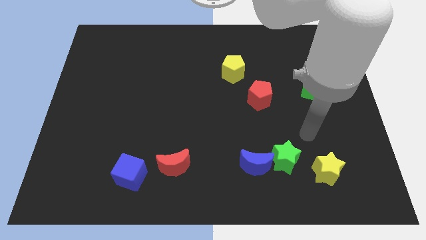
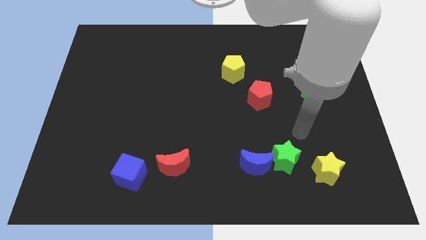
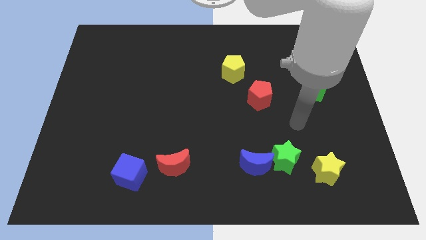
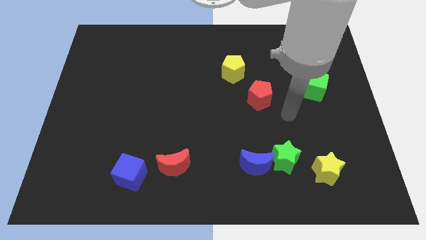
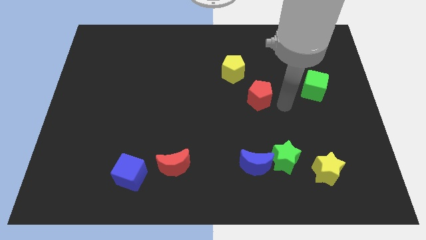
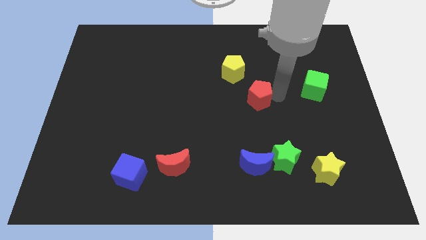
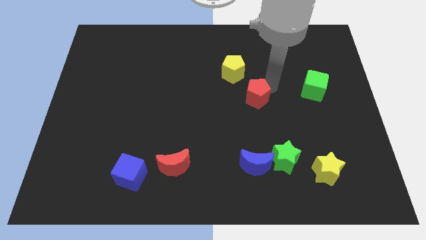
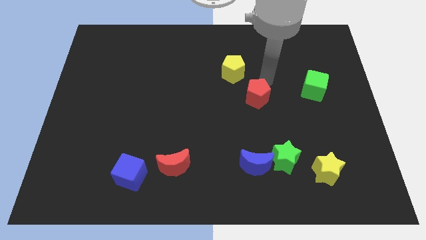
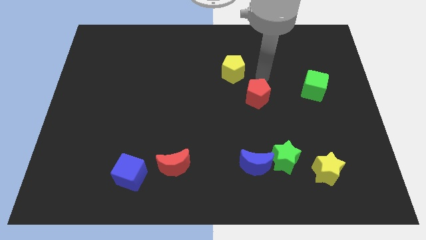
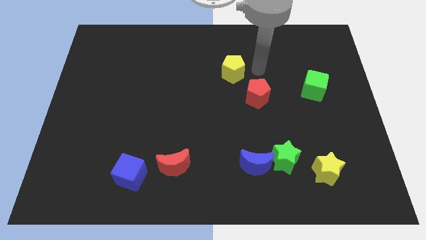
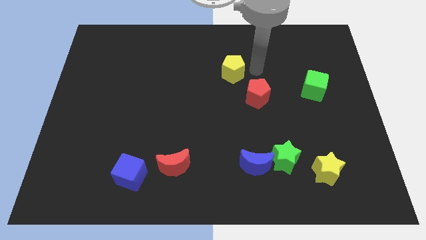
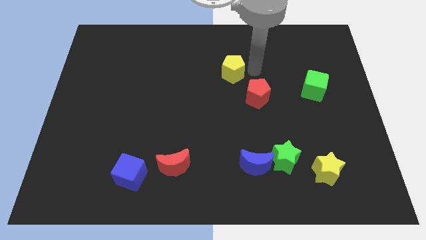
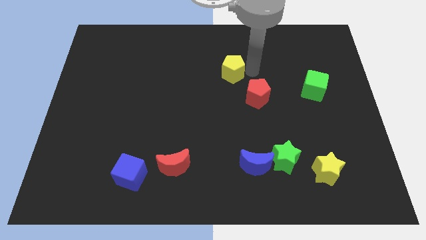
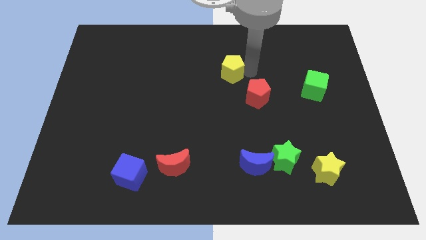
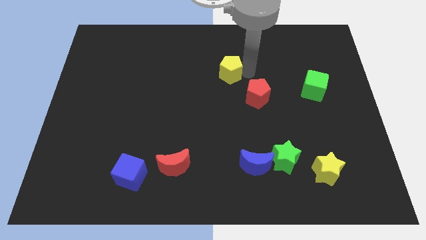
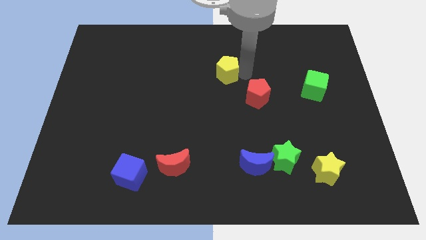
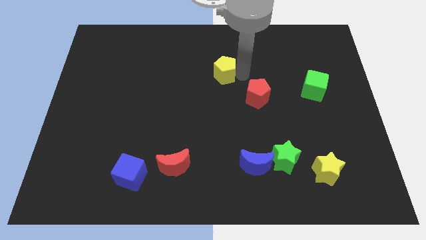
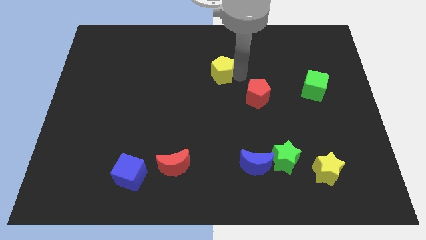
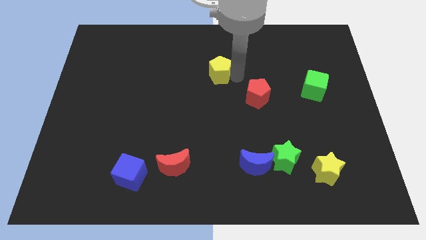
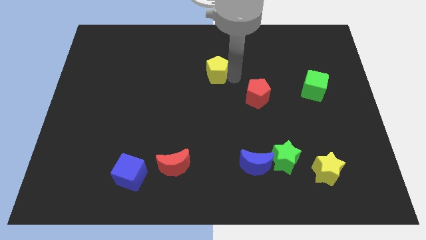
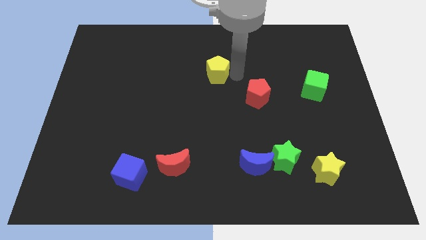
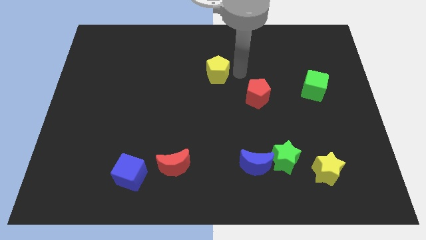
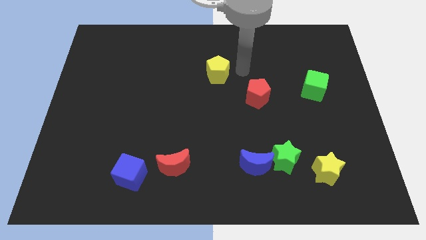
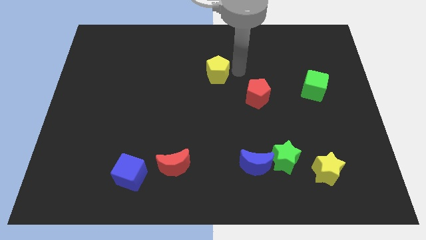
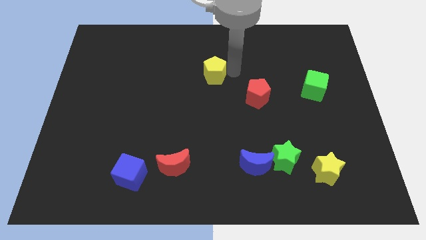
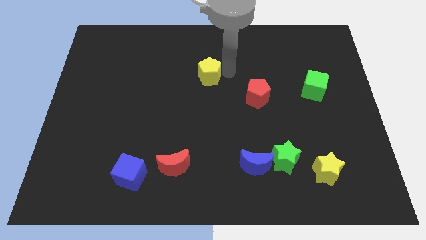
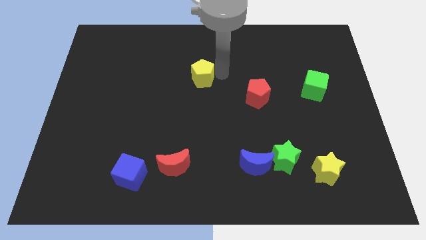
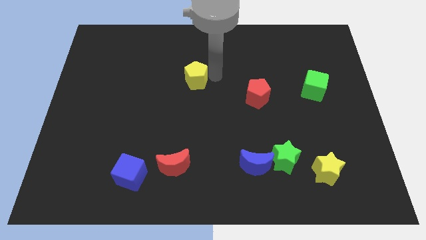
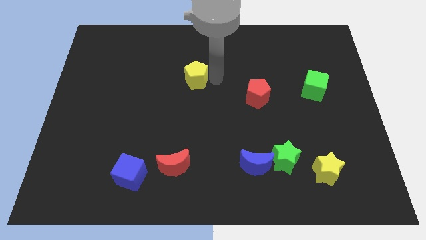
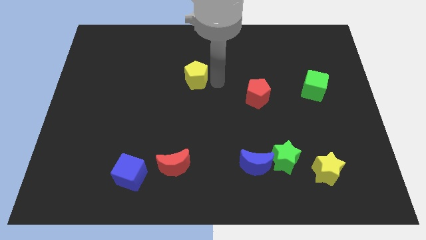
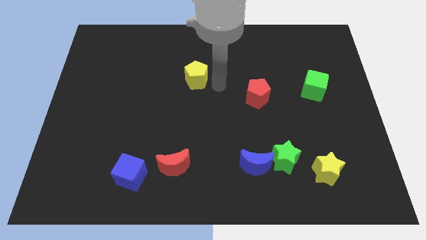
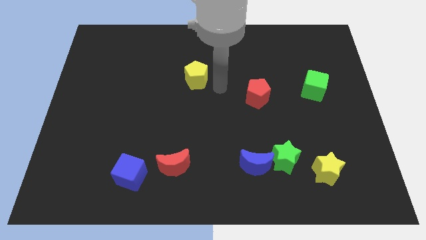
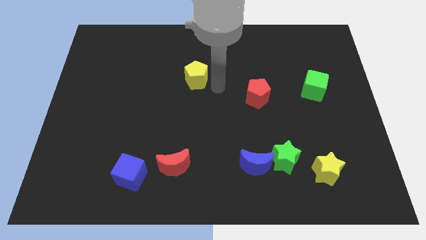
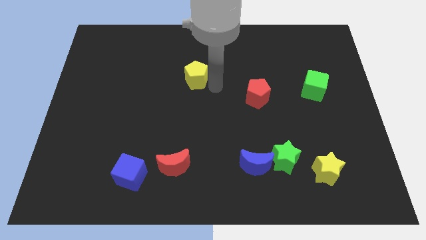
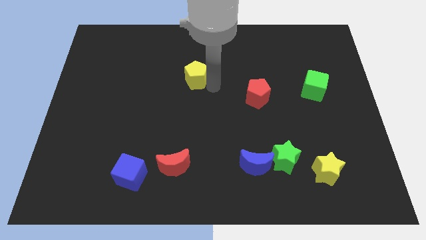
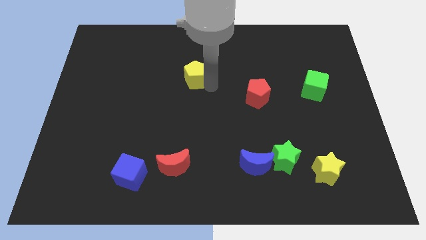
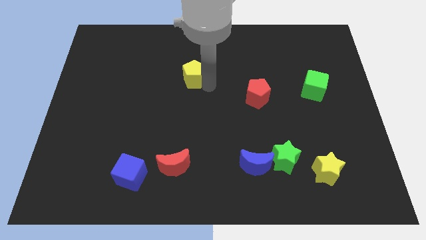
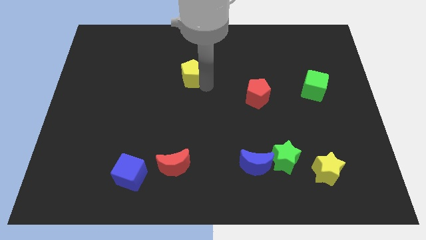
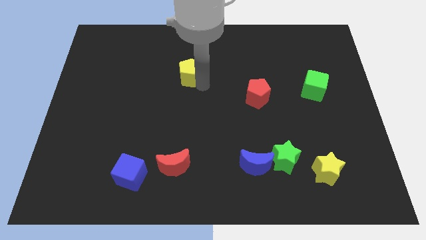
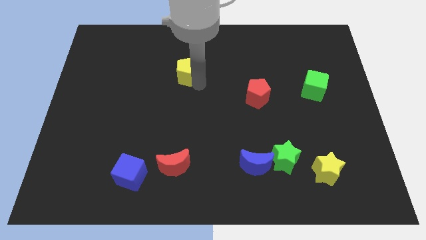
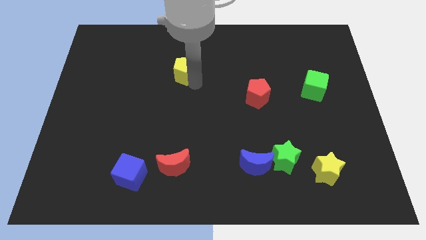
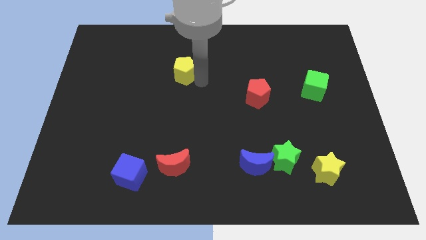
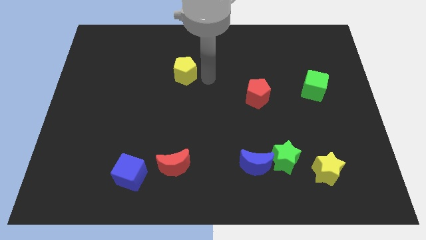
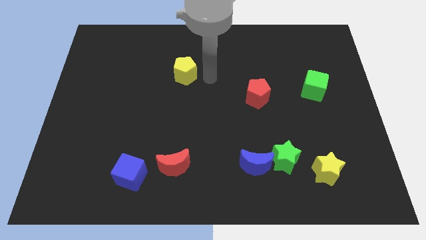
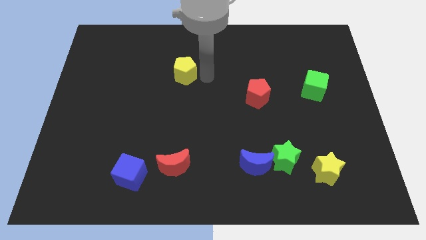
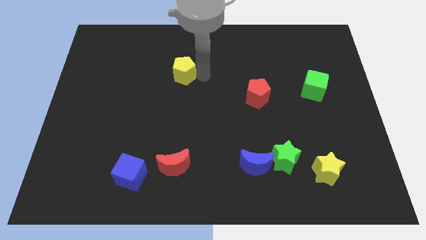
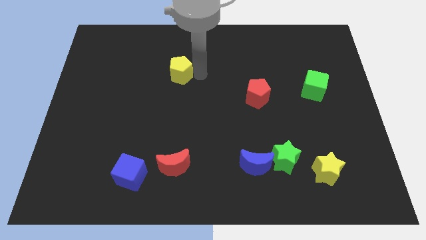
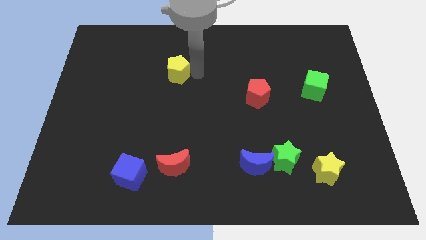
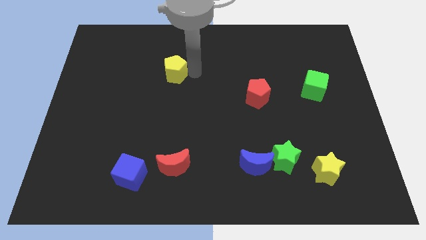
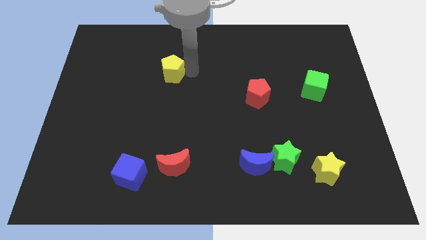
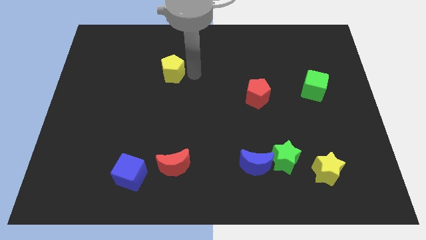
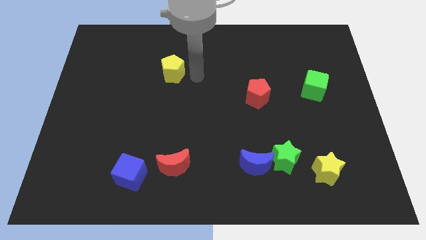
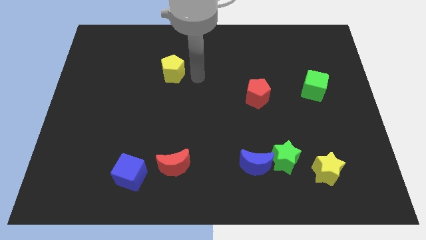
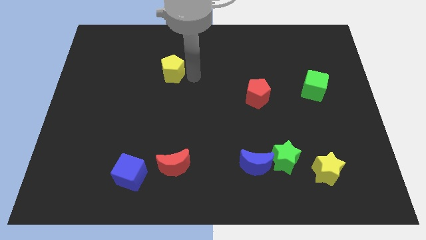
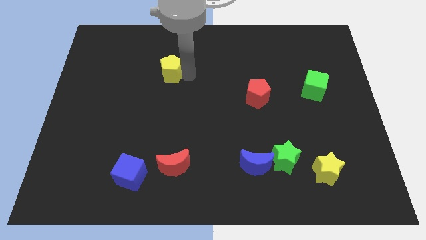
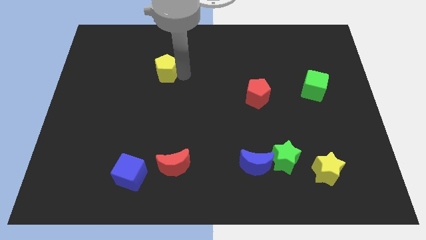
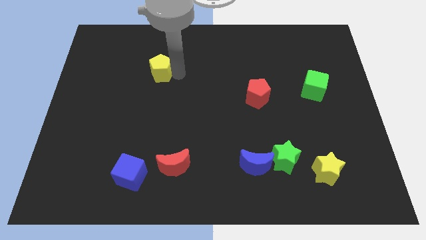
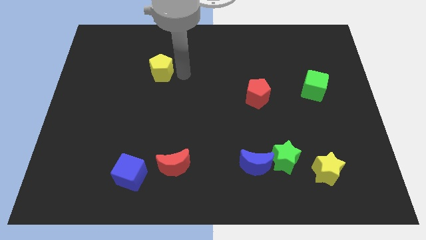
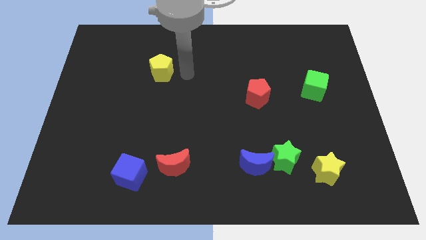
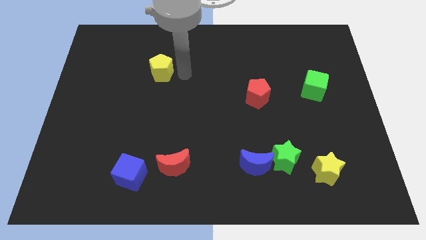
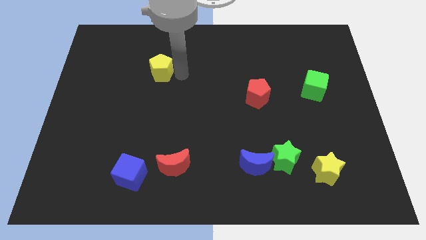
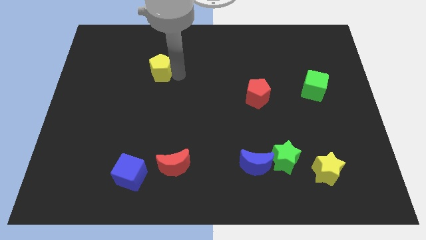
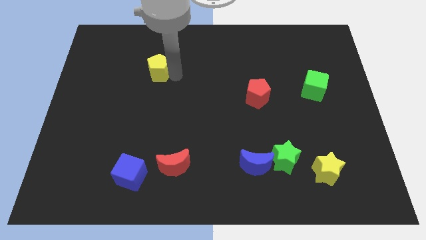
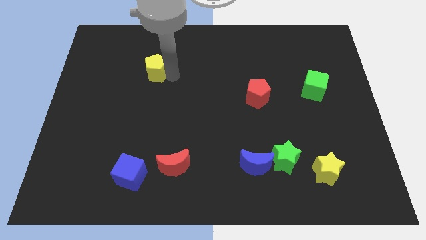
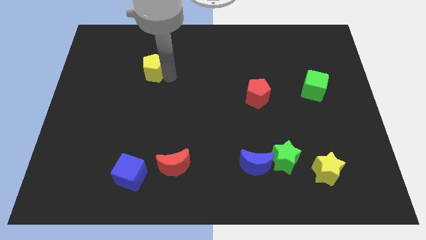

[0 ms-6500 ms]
push the yellow pentagon to the left

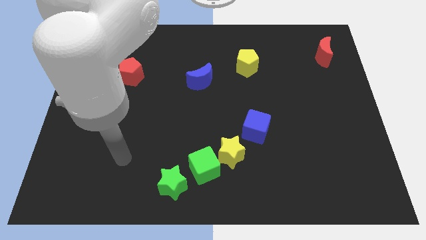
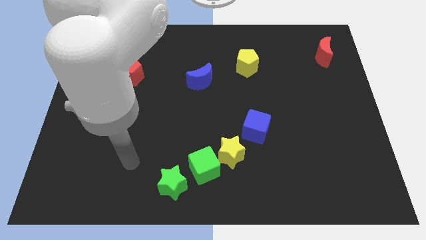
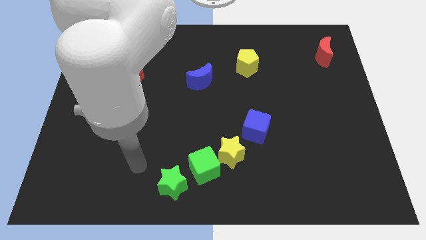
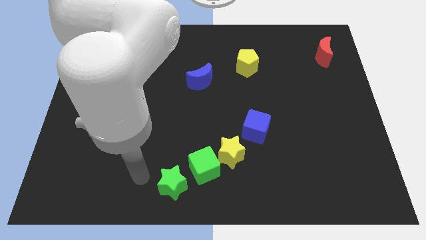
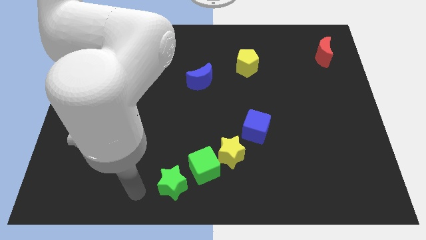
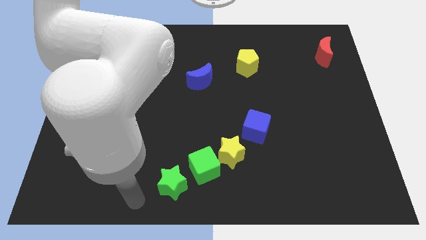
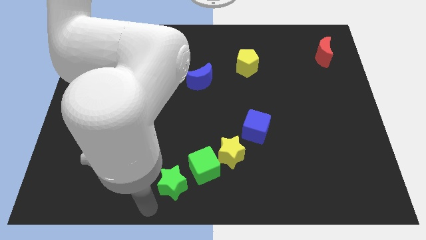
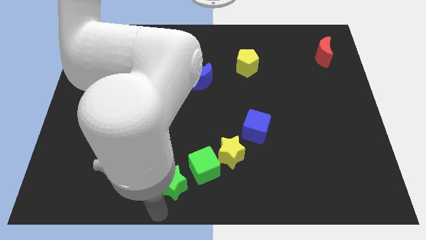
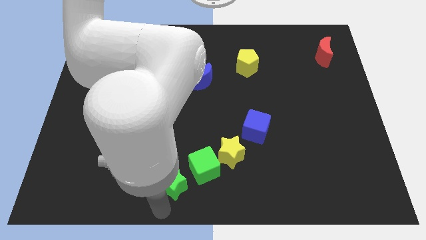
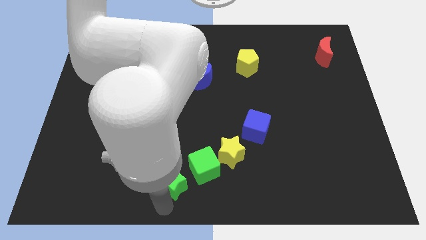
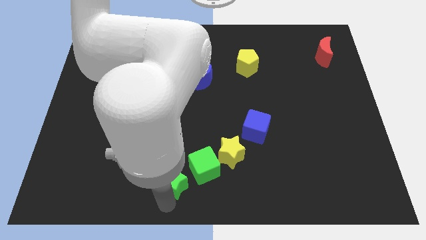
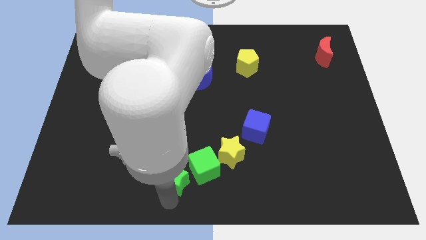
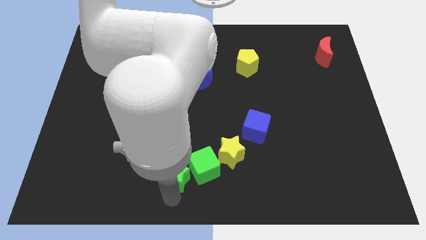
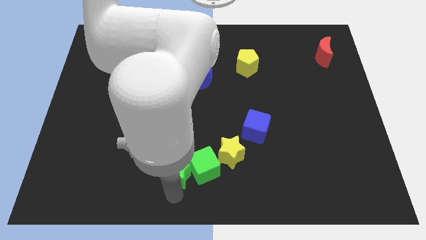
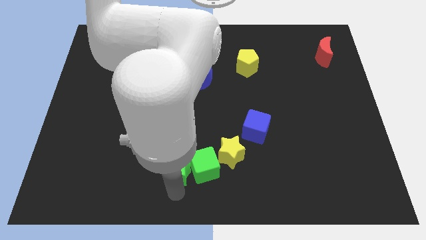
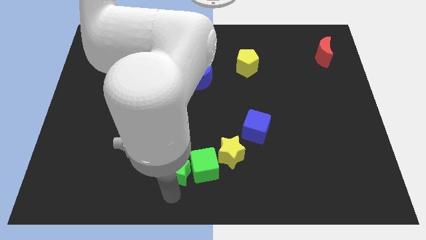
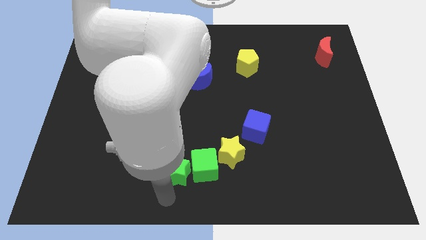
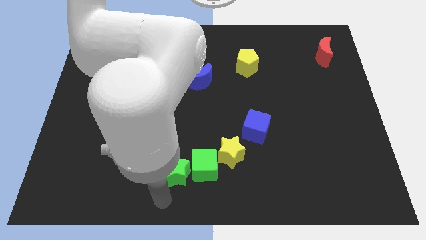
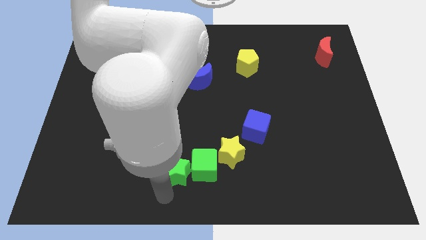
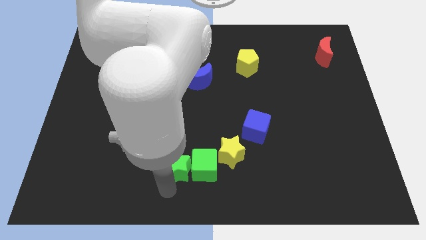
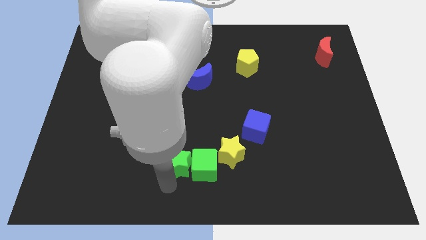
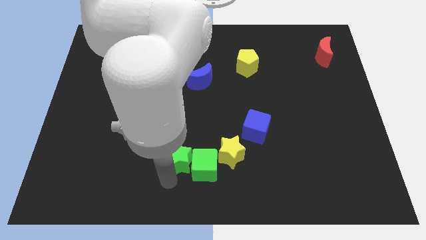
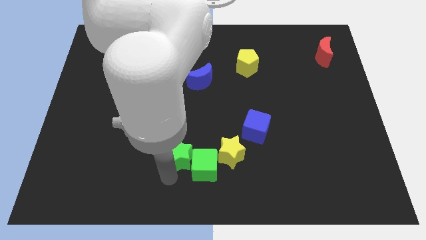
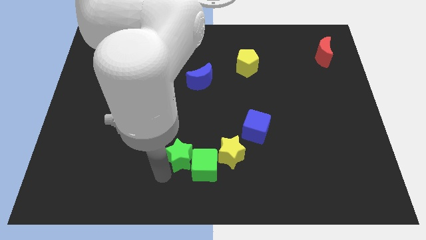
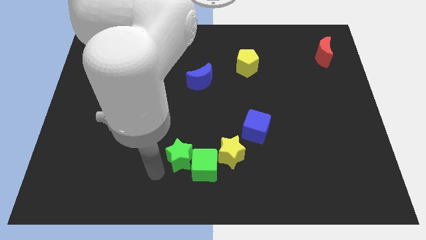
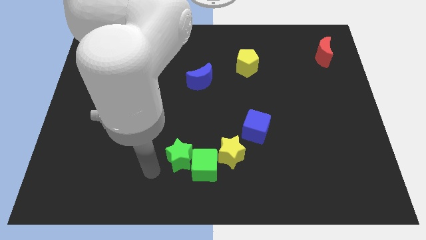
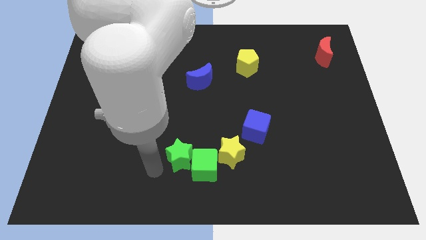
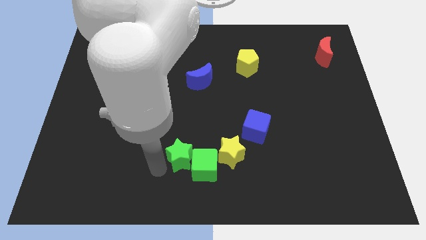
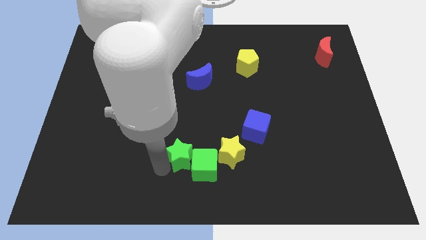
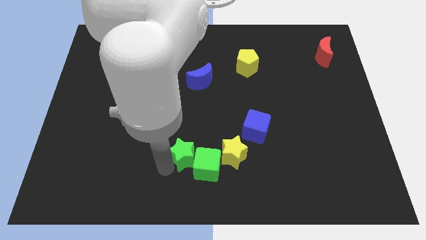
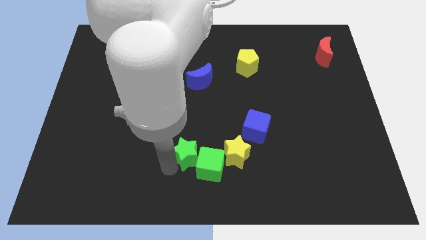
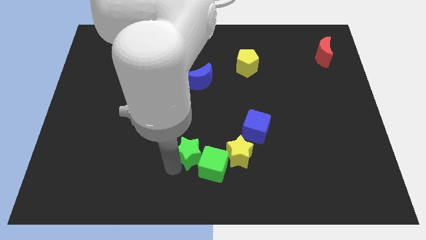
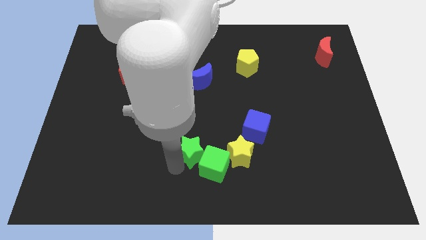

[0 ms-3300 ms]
move the green star a little upwards and right diagonally
